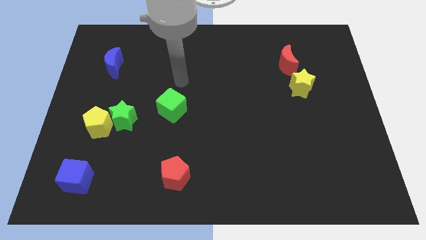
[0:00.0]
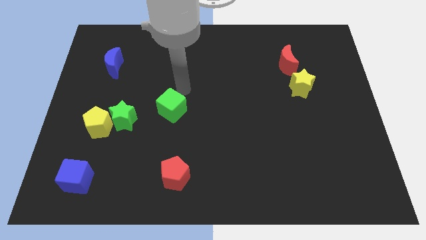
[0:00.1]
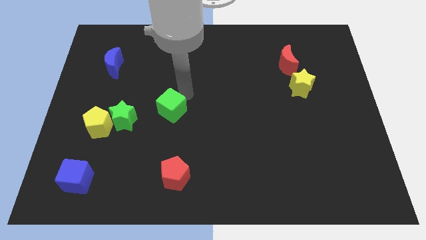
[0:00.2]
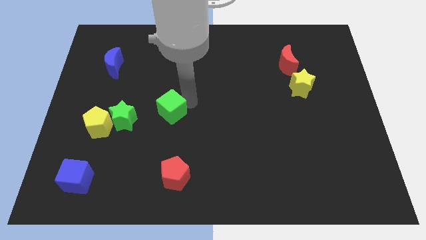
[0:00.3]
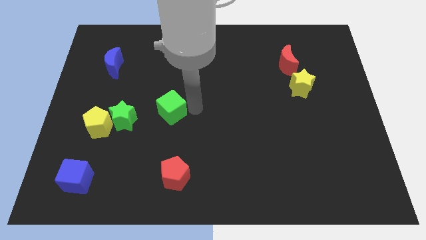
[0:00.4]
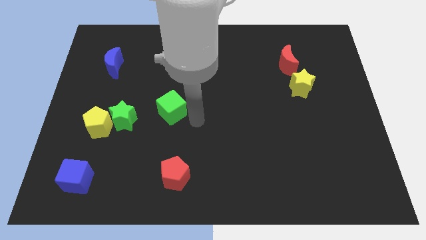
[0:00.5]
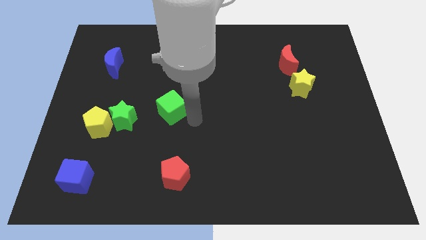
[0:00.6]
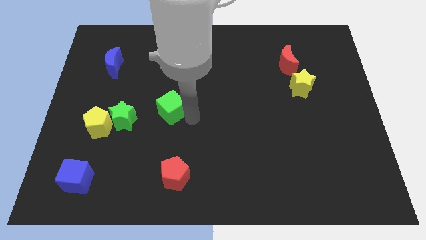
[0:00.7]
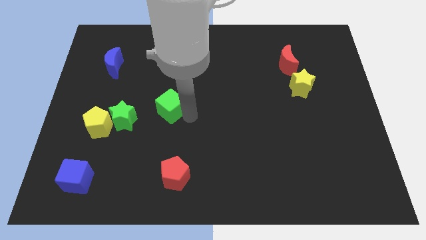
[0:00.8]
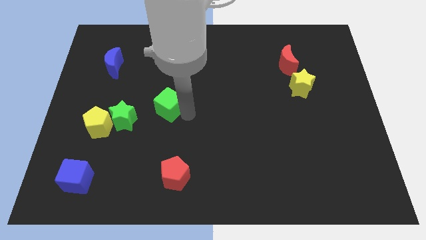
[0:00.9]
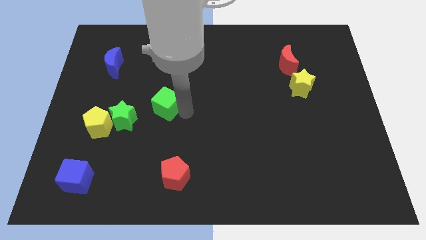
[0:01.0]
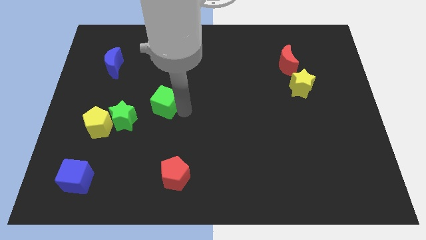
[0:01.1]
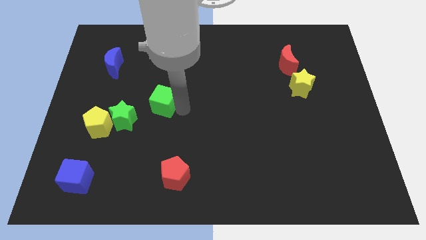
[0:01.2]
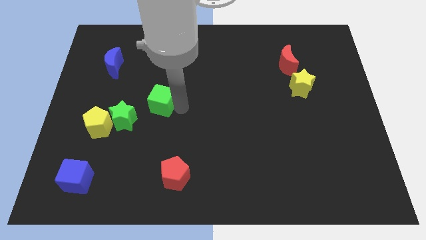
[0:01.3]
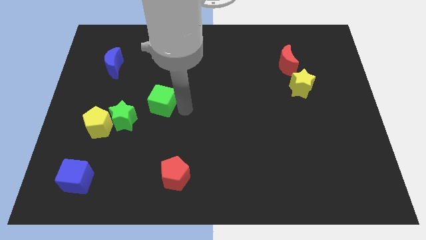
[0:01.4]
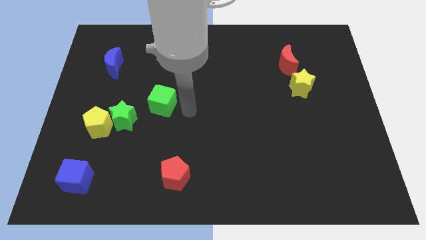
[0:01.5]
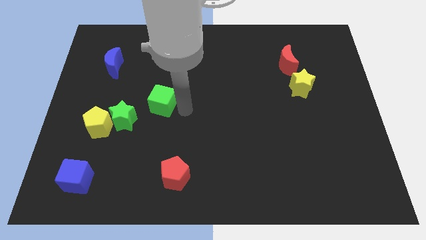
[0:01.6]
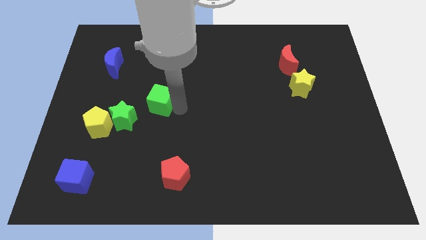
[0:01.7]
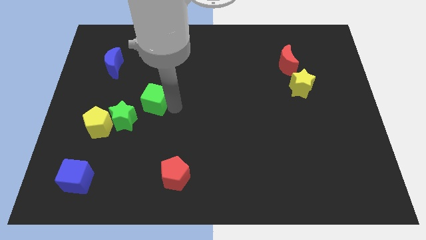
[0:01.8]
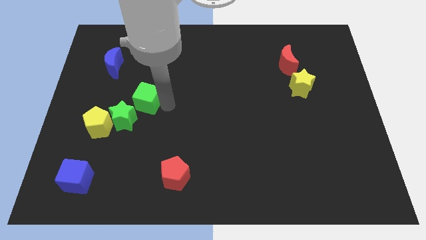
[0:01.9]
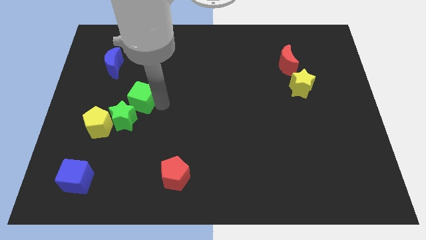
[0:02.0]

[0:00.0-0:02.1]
move the green cube a little bit left

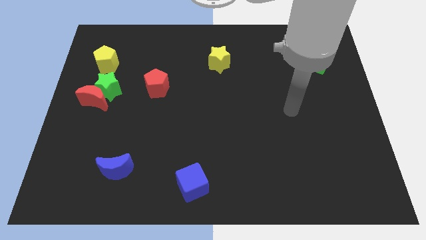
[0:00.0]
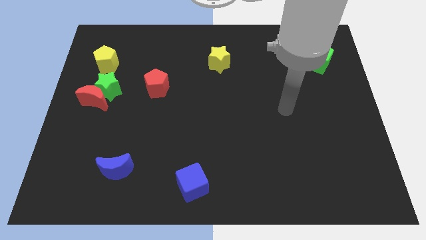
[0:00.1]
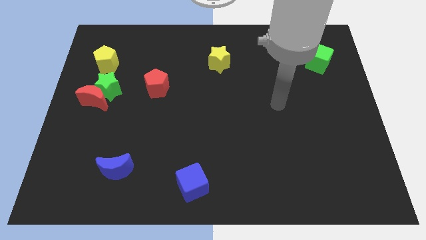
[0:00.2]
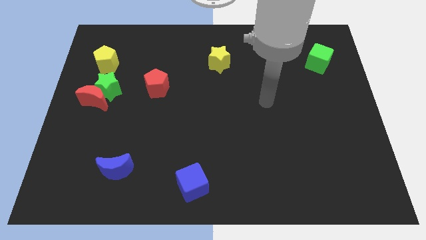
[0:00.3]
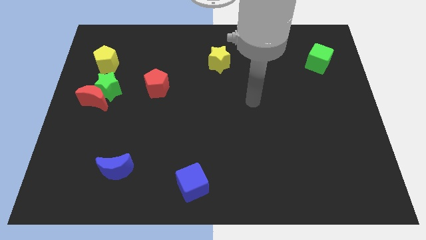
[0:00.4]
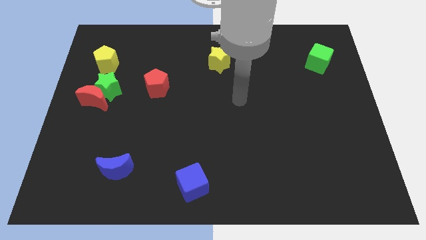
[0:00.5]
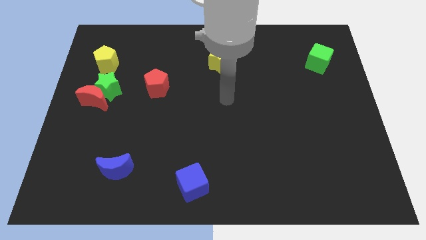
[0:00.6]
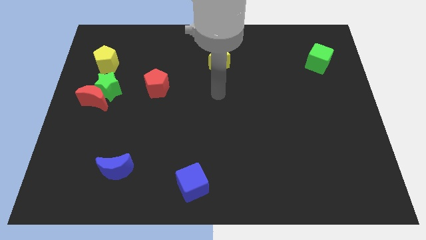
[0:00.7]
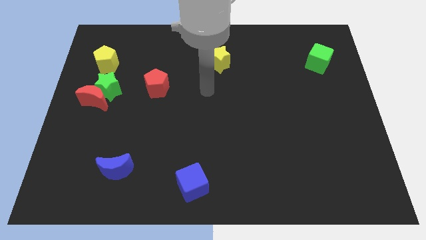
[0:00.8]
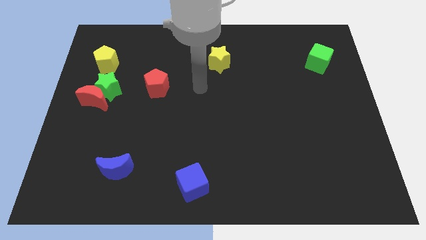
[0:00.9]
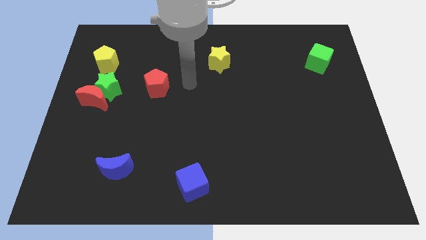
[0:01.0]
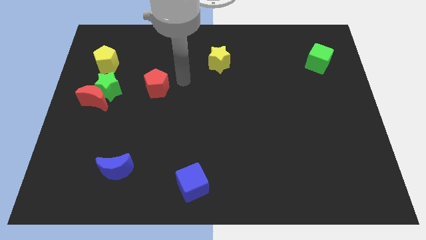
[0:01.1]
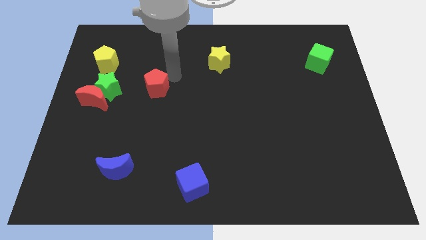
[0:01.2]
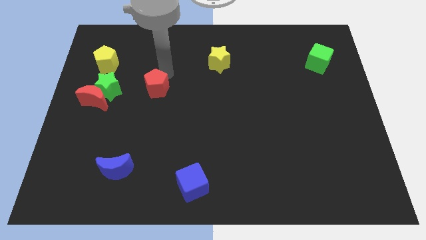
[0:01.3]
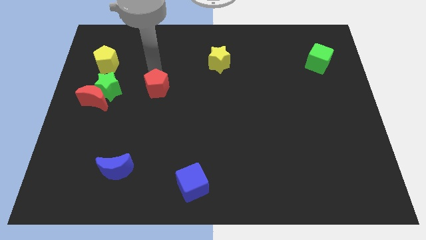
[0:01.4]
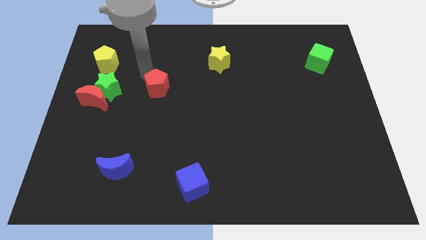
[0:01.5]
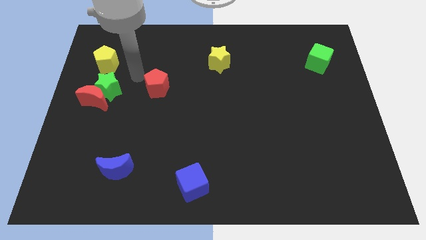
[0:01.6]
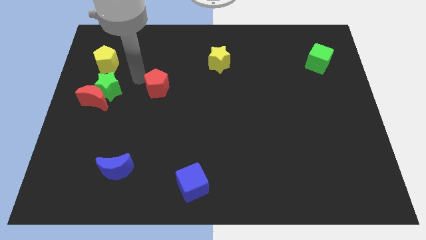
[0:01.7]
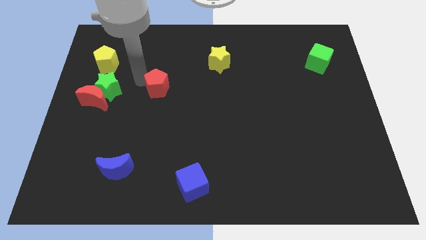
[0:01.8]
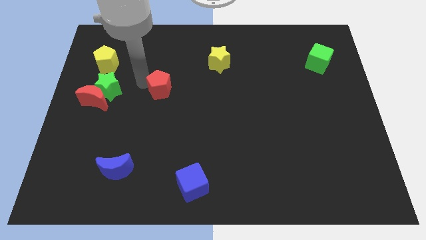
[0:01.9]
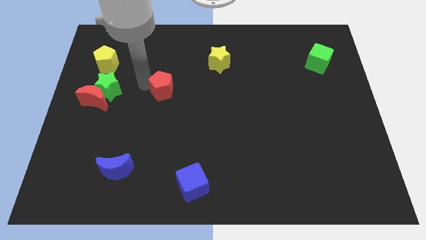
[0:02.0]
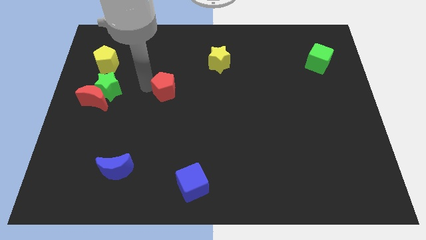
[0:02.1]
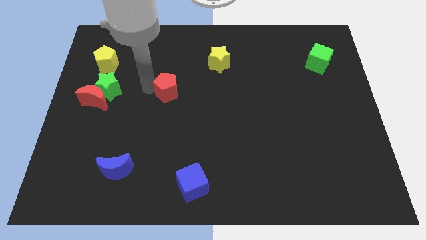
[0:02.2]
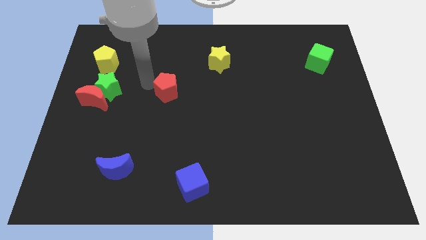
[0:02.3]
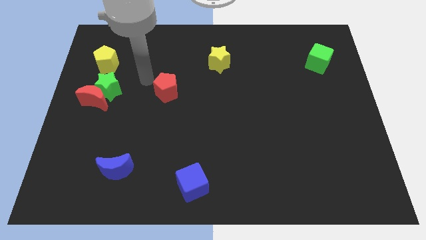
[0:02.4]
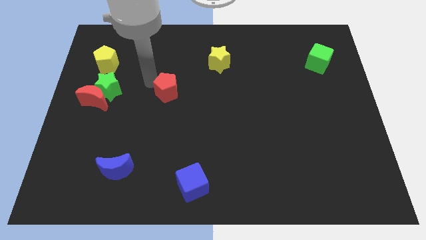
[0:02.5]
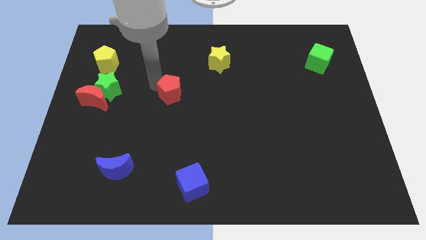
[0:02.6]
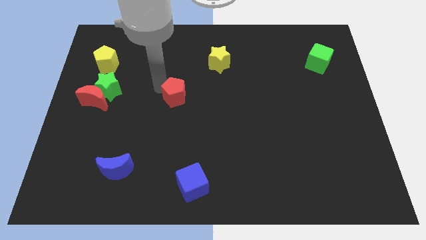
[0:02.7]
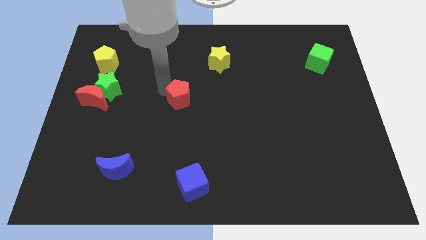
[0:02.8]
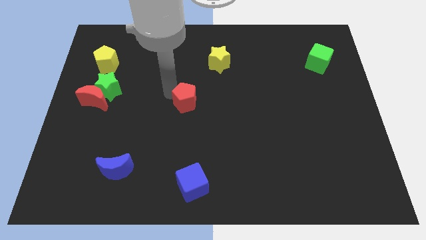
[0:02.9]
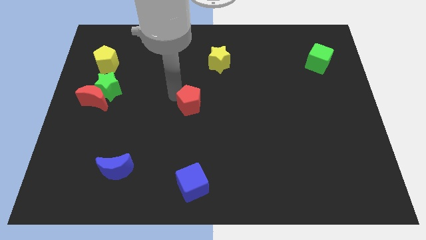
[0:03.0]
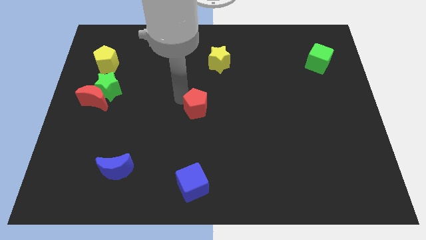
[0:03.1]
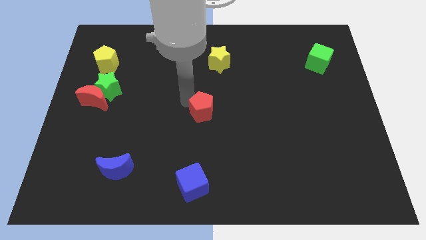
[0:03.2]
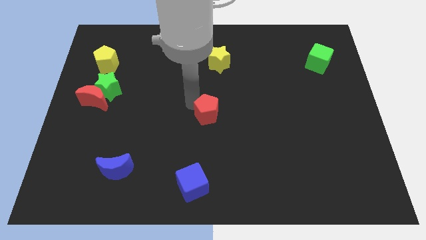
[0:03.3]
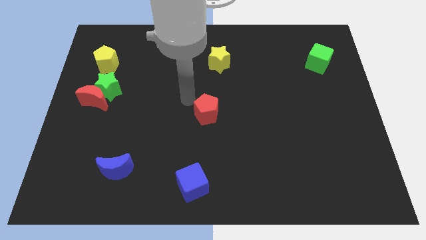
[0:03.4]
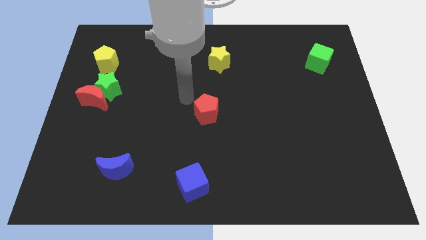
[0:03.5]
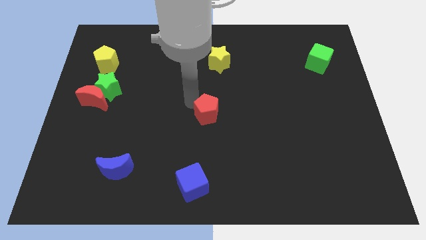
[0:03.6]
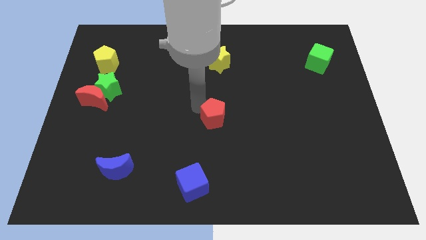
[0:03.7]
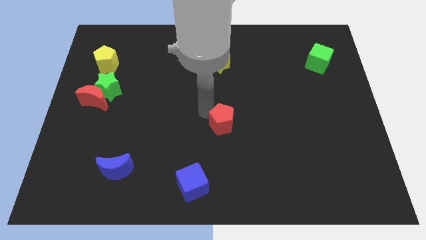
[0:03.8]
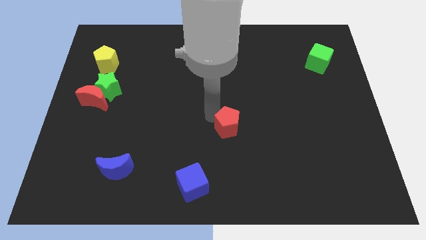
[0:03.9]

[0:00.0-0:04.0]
move the red pentagon down and then right

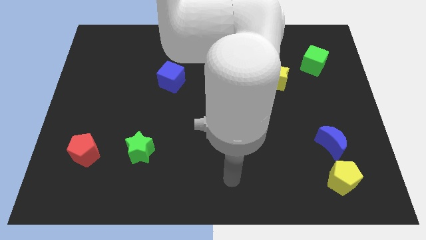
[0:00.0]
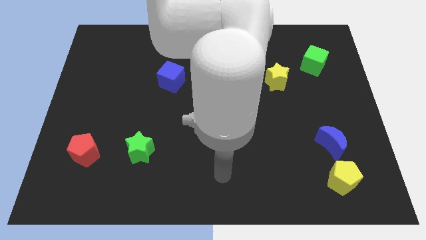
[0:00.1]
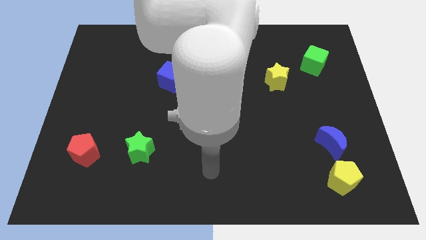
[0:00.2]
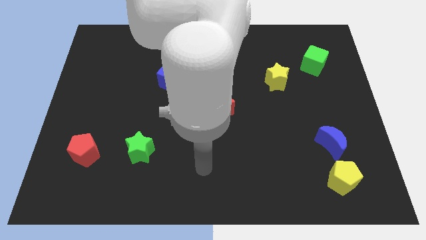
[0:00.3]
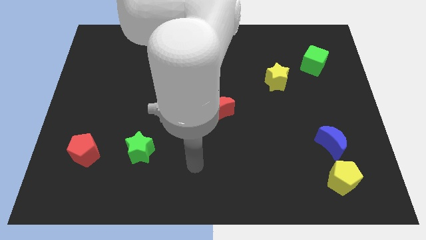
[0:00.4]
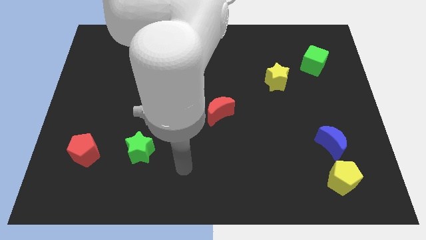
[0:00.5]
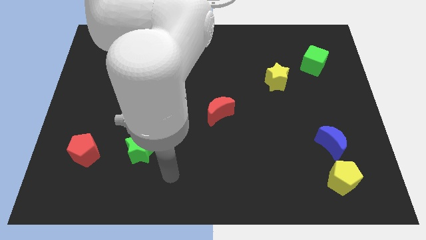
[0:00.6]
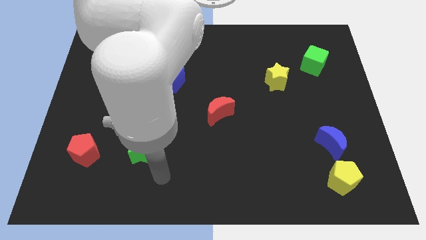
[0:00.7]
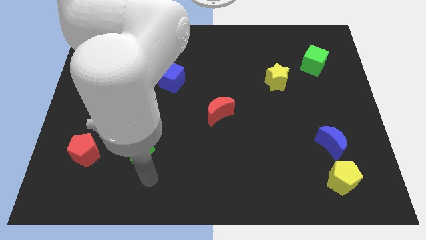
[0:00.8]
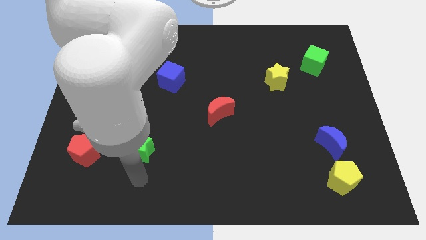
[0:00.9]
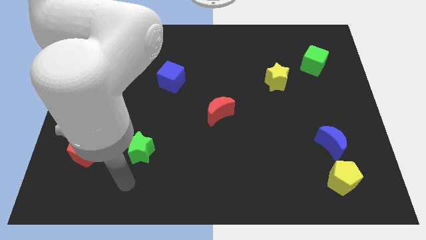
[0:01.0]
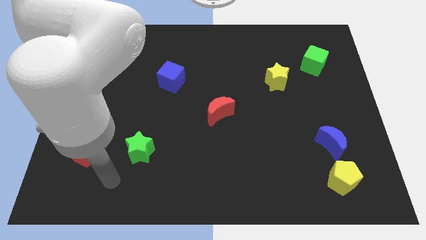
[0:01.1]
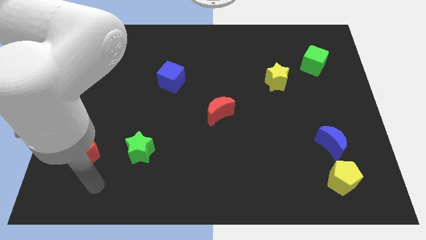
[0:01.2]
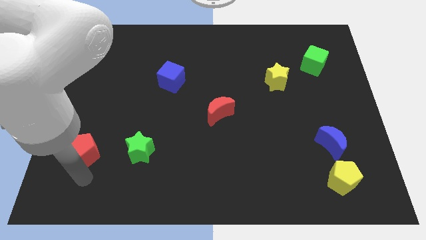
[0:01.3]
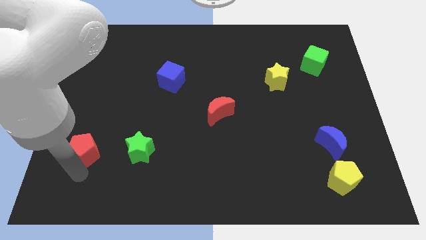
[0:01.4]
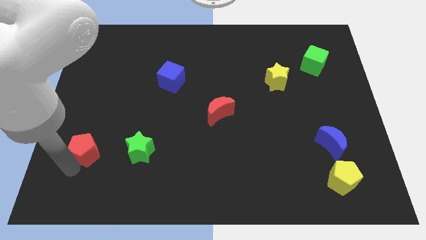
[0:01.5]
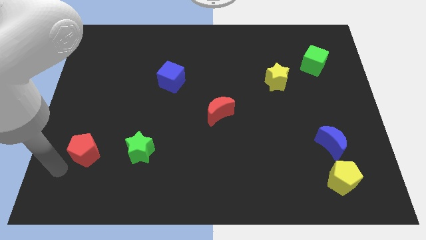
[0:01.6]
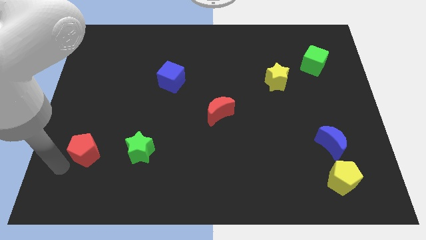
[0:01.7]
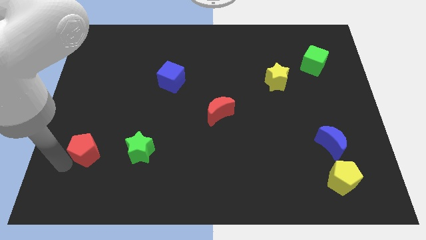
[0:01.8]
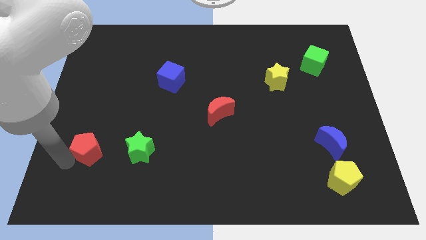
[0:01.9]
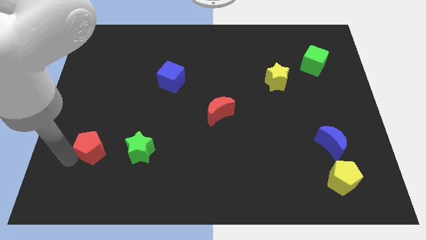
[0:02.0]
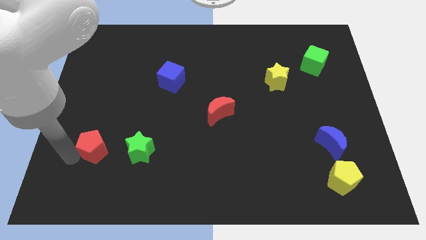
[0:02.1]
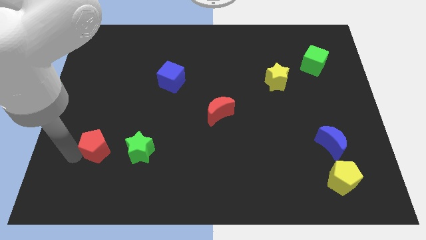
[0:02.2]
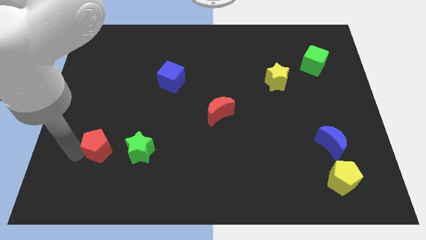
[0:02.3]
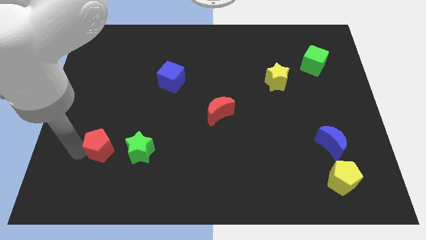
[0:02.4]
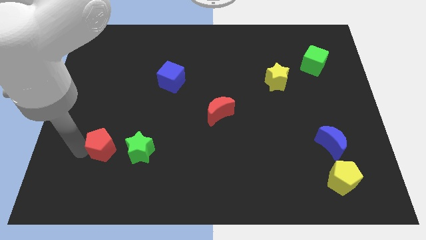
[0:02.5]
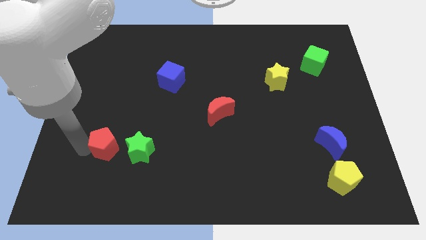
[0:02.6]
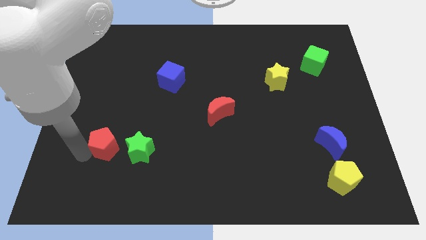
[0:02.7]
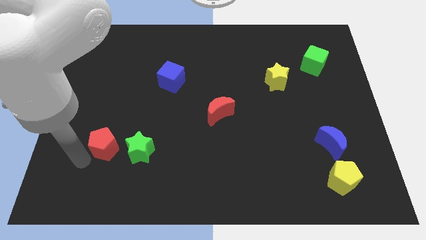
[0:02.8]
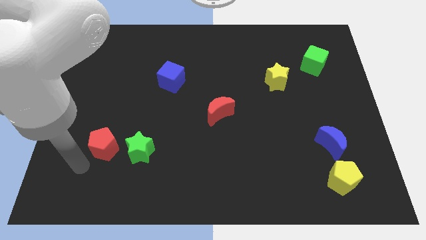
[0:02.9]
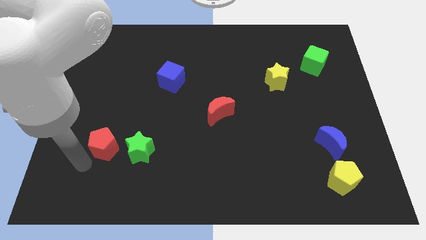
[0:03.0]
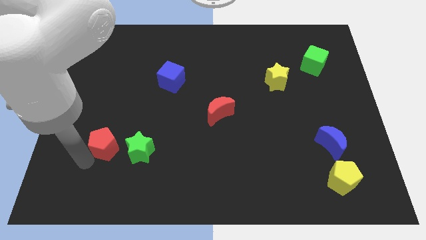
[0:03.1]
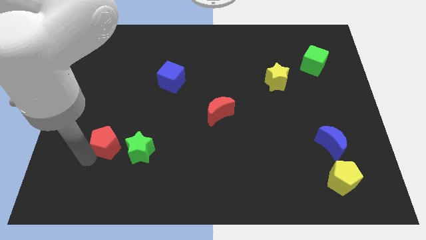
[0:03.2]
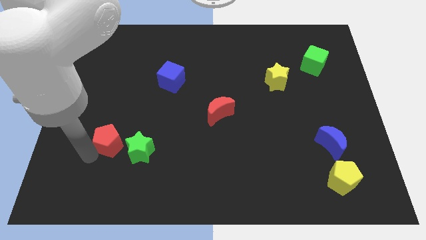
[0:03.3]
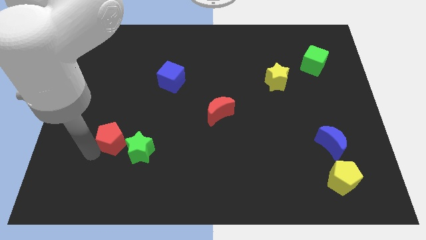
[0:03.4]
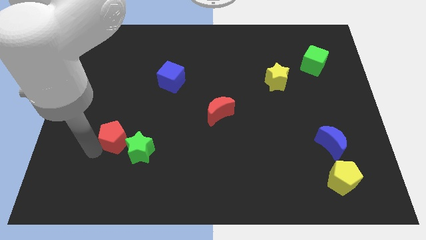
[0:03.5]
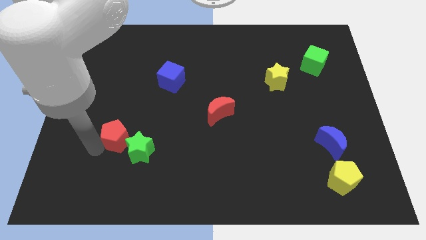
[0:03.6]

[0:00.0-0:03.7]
slightly move the red pentagon up and to the right diagonally
